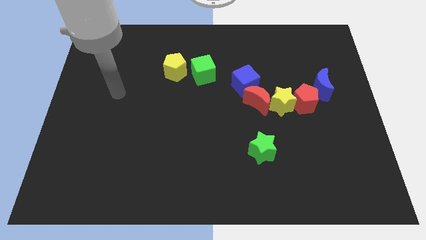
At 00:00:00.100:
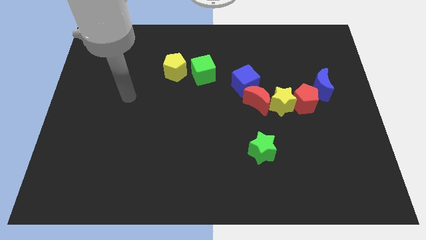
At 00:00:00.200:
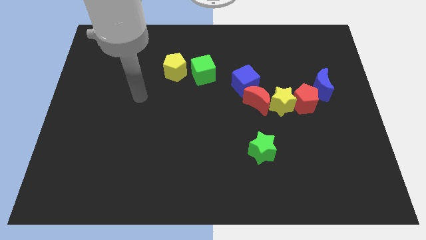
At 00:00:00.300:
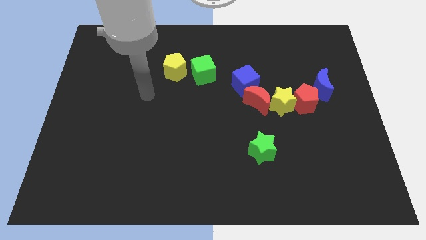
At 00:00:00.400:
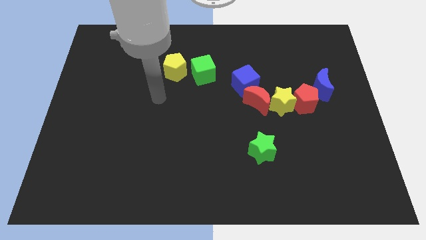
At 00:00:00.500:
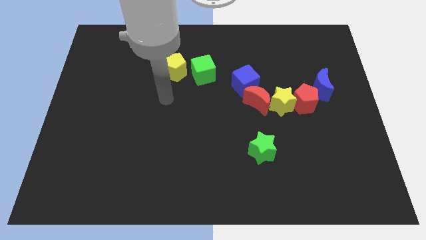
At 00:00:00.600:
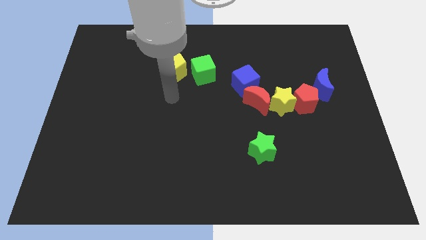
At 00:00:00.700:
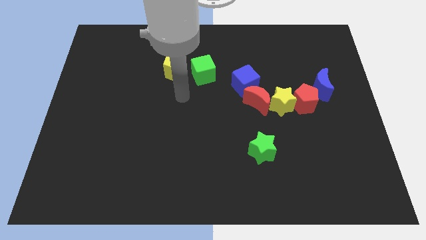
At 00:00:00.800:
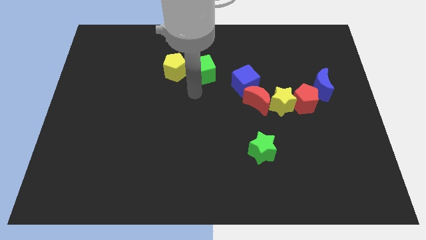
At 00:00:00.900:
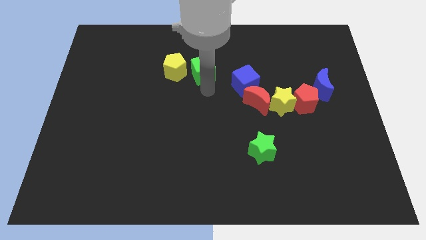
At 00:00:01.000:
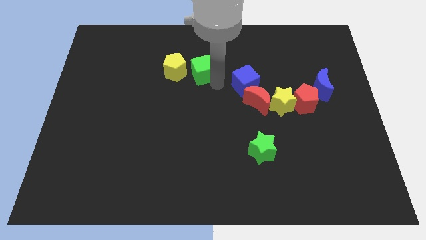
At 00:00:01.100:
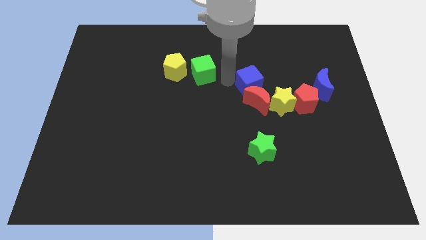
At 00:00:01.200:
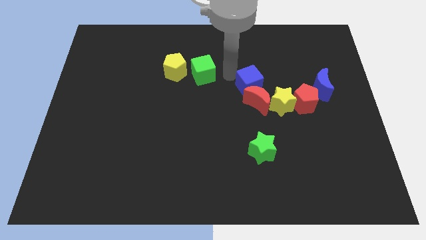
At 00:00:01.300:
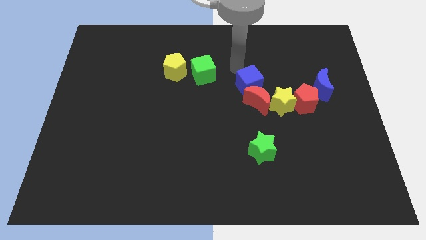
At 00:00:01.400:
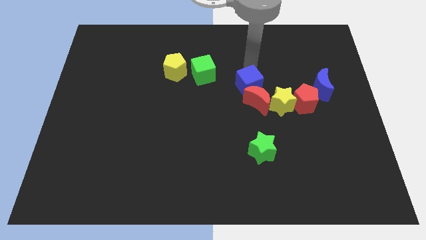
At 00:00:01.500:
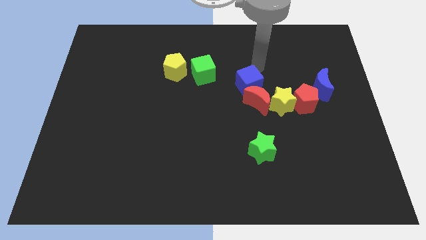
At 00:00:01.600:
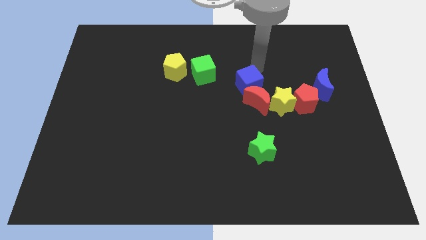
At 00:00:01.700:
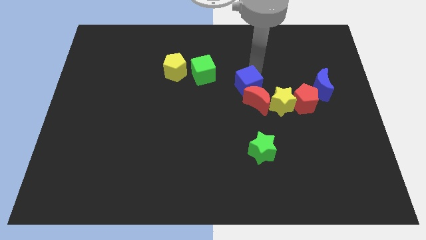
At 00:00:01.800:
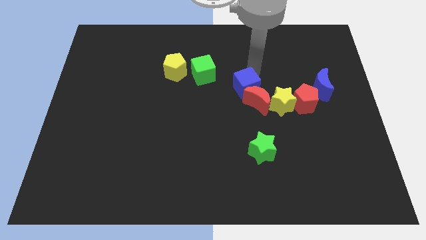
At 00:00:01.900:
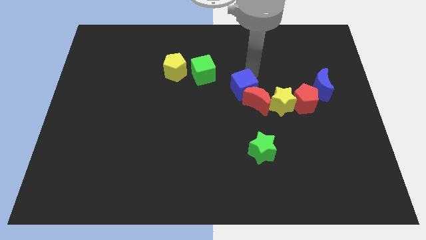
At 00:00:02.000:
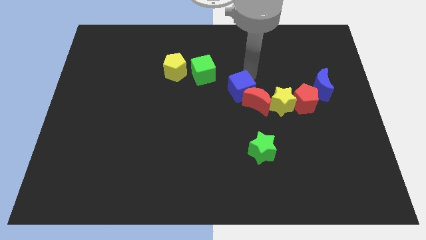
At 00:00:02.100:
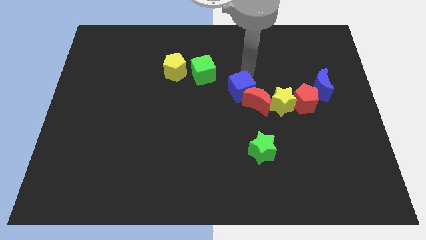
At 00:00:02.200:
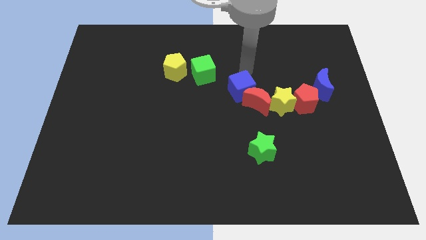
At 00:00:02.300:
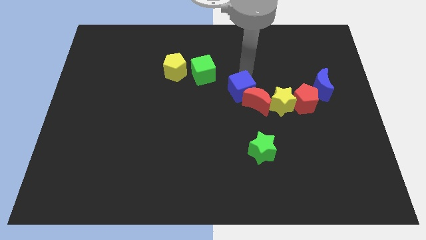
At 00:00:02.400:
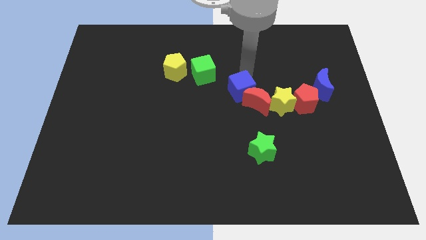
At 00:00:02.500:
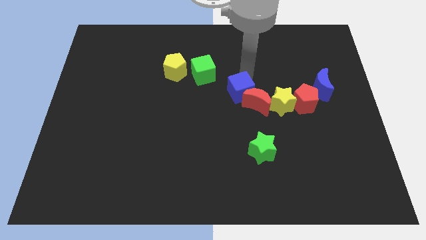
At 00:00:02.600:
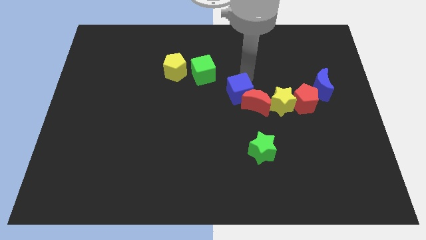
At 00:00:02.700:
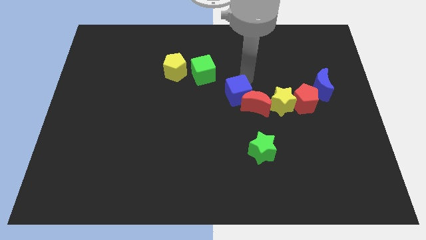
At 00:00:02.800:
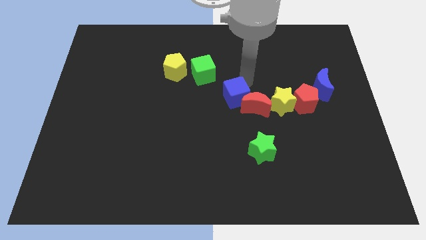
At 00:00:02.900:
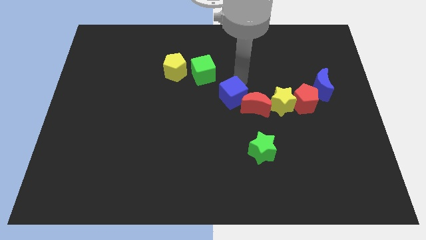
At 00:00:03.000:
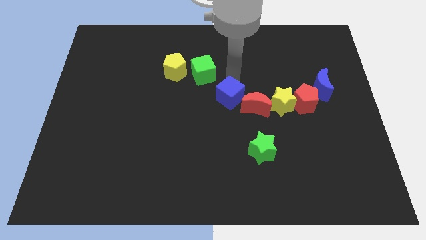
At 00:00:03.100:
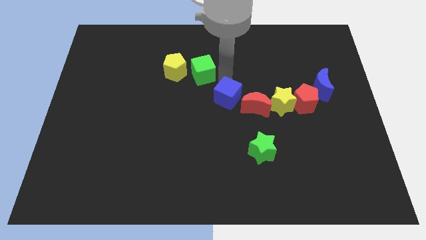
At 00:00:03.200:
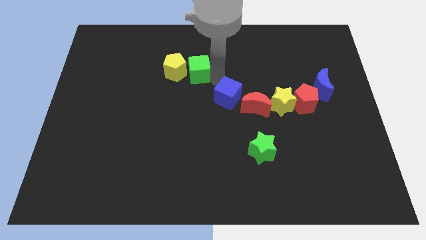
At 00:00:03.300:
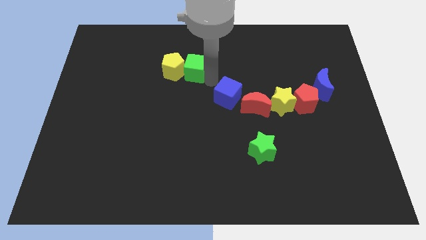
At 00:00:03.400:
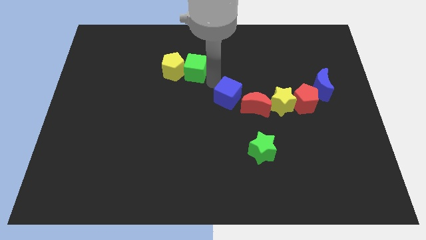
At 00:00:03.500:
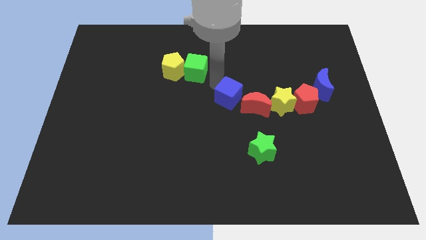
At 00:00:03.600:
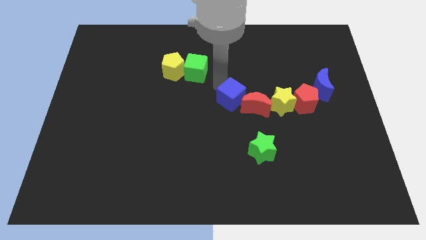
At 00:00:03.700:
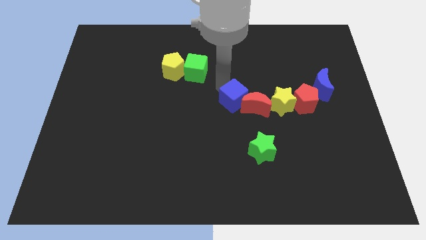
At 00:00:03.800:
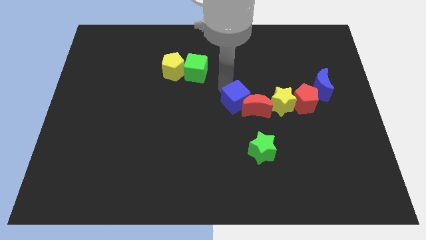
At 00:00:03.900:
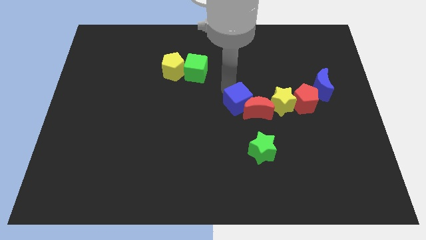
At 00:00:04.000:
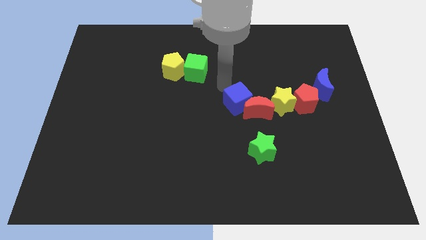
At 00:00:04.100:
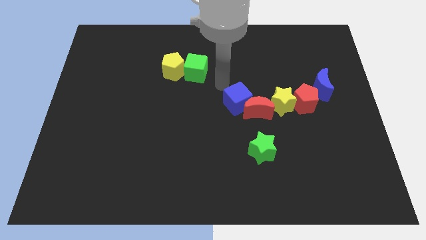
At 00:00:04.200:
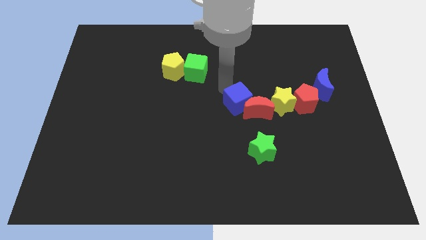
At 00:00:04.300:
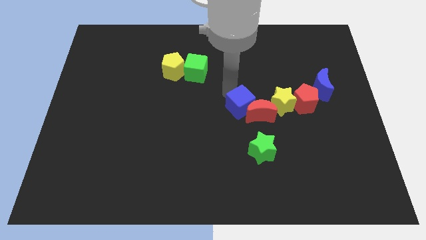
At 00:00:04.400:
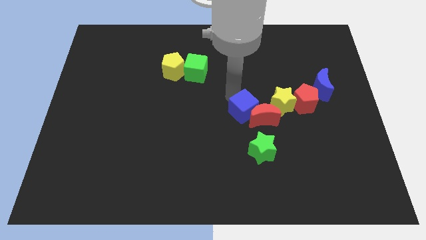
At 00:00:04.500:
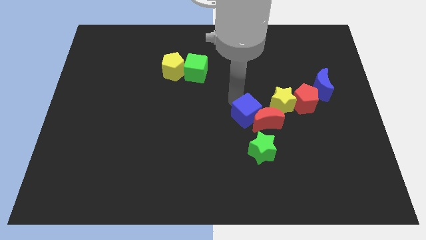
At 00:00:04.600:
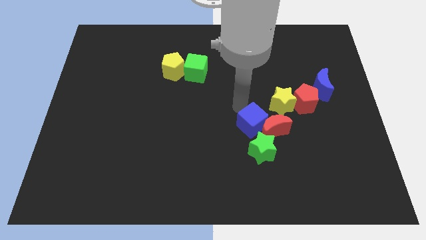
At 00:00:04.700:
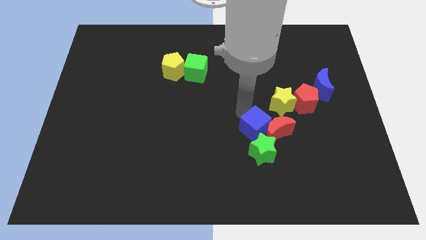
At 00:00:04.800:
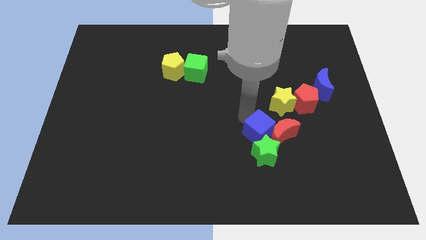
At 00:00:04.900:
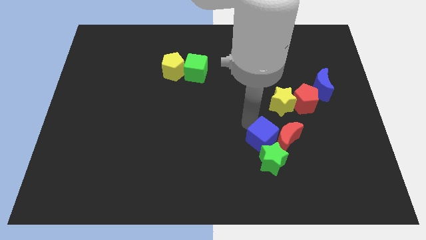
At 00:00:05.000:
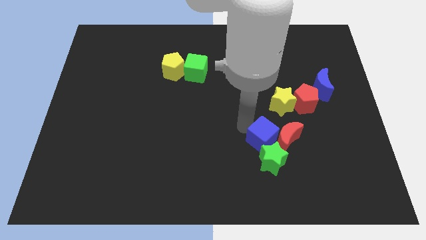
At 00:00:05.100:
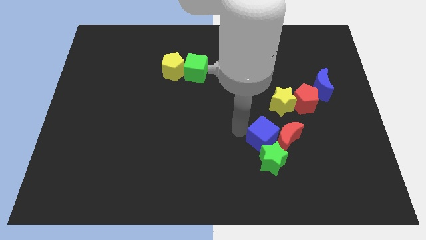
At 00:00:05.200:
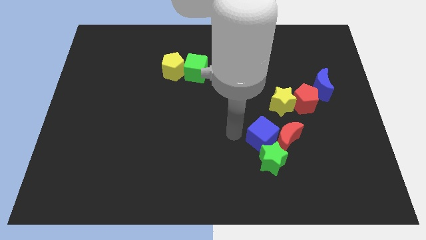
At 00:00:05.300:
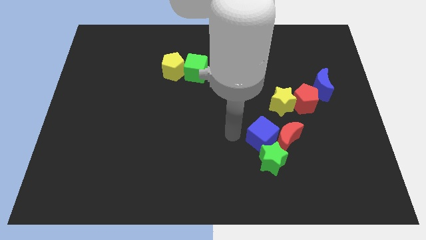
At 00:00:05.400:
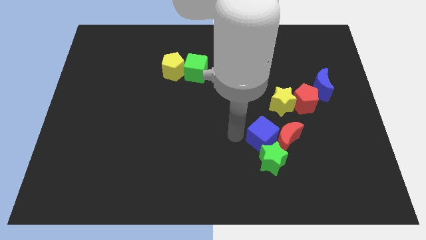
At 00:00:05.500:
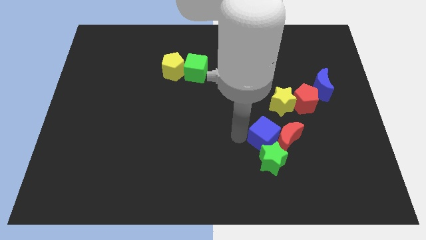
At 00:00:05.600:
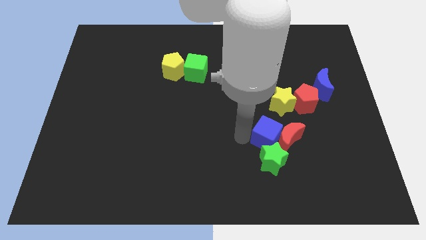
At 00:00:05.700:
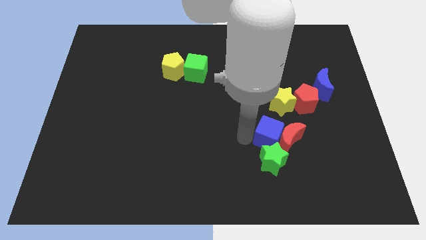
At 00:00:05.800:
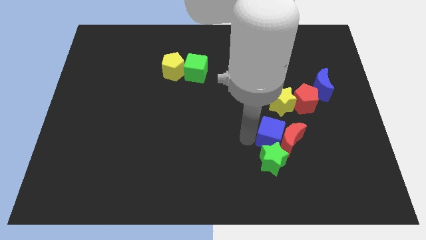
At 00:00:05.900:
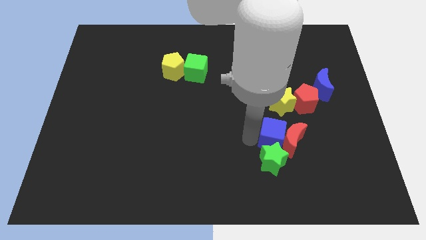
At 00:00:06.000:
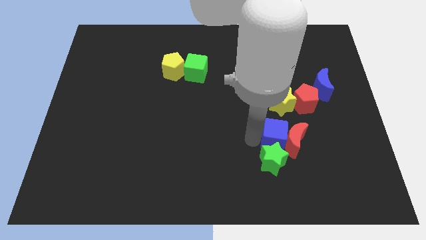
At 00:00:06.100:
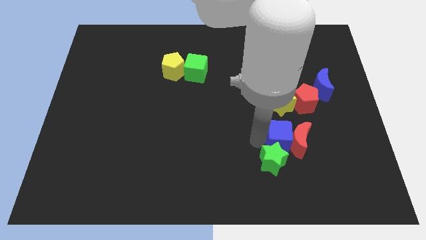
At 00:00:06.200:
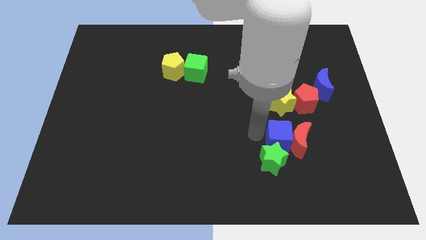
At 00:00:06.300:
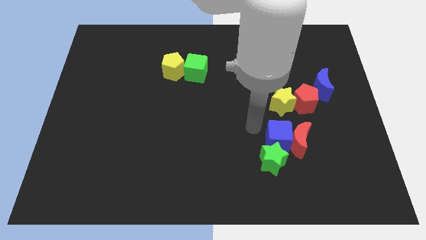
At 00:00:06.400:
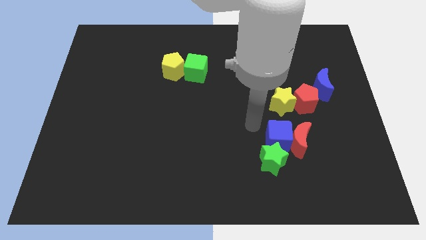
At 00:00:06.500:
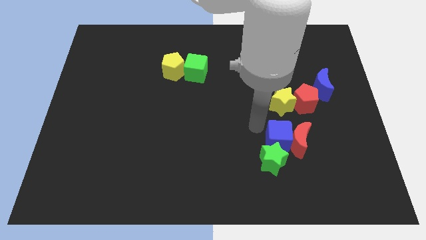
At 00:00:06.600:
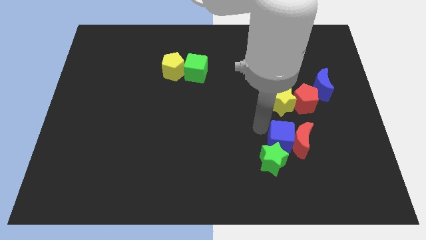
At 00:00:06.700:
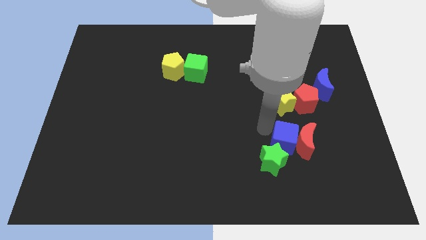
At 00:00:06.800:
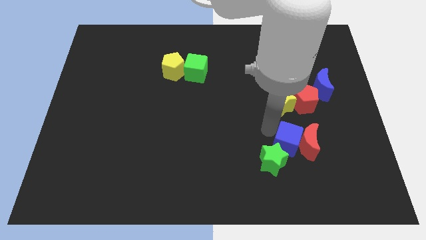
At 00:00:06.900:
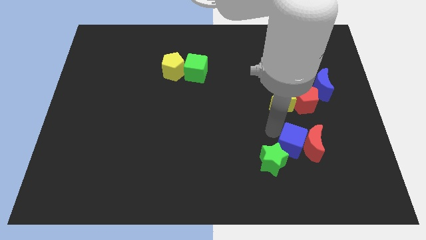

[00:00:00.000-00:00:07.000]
push the blue cube just right of the green star
